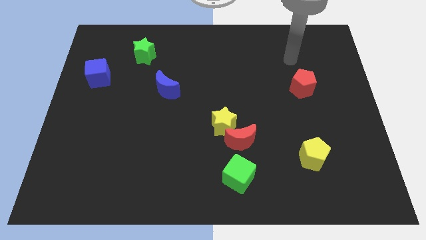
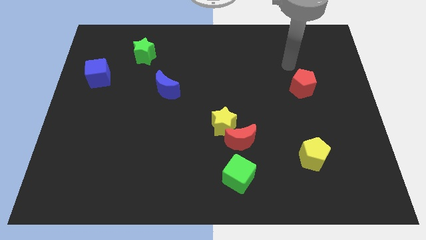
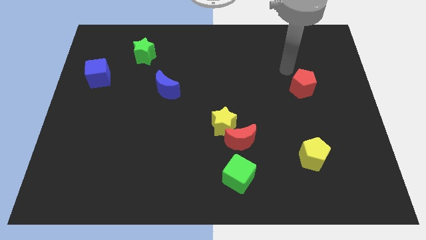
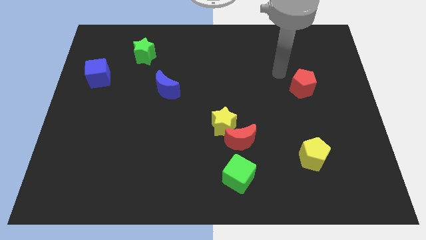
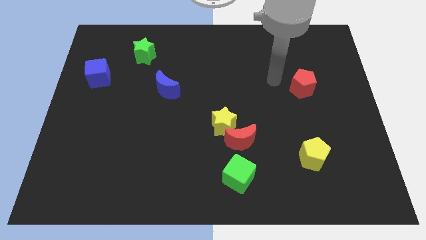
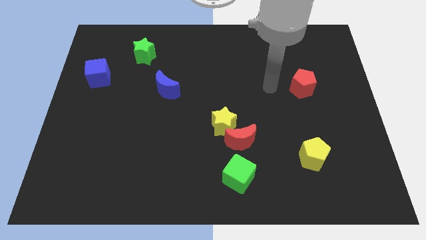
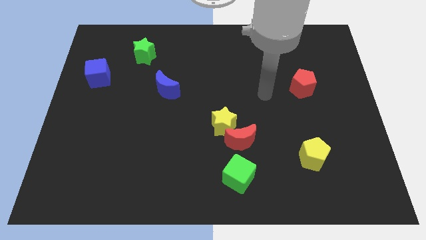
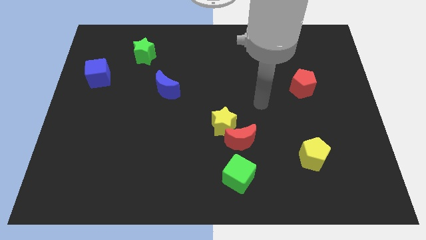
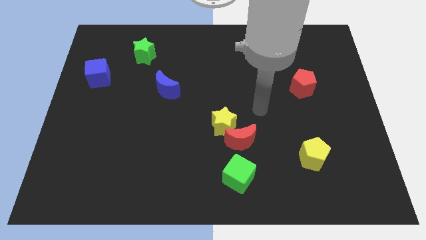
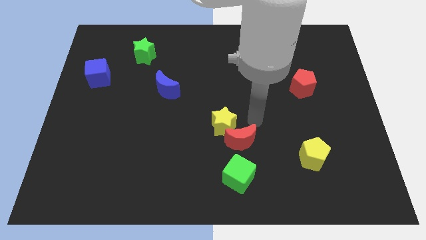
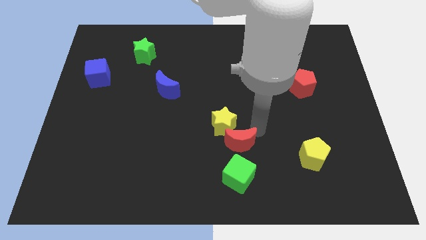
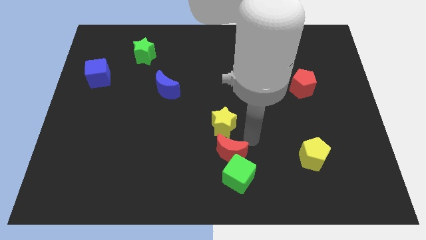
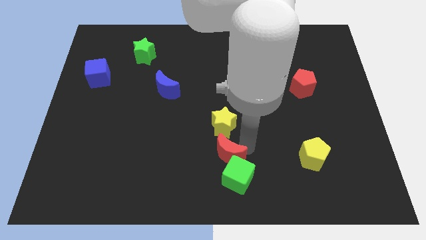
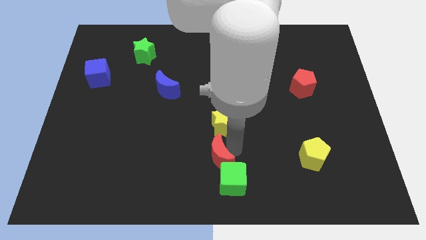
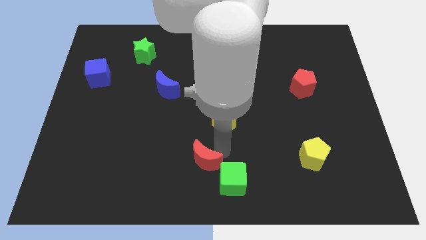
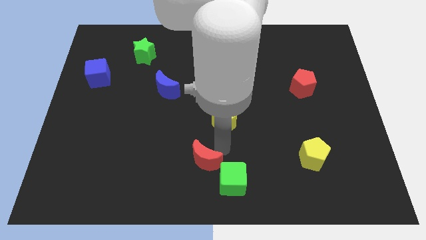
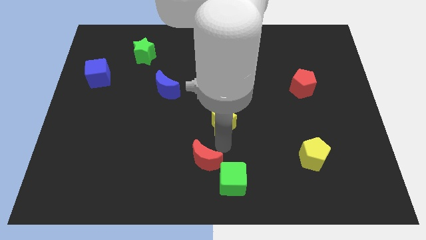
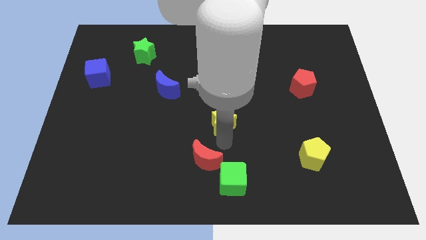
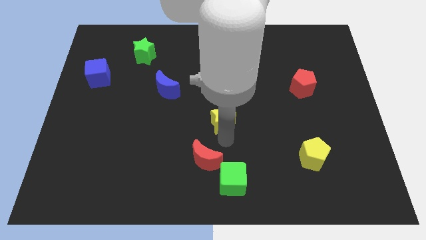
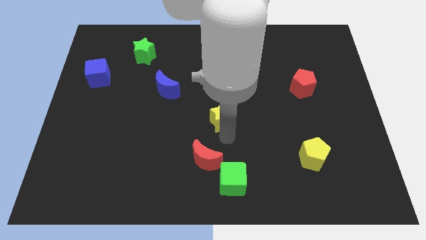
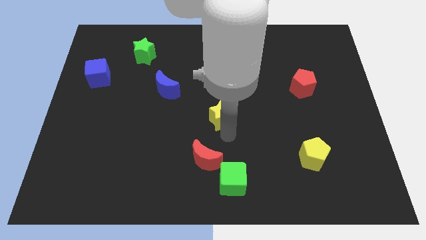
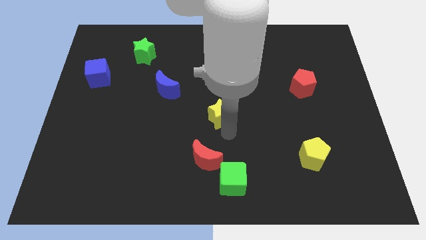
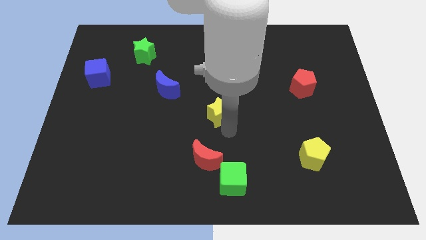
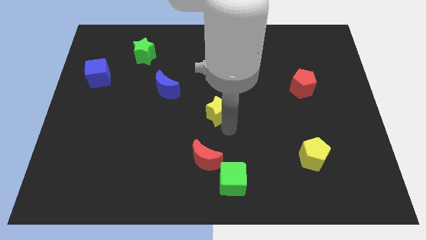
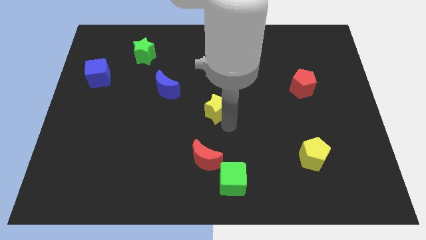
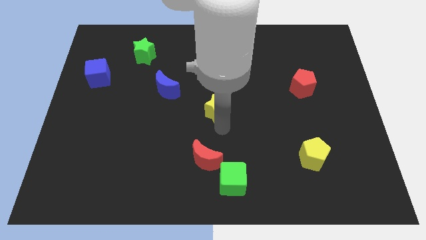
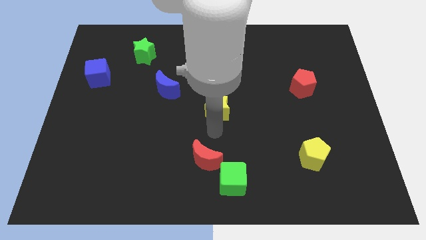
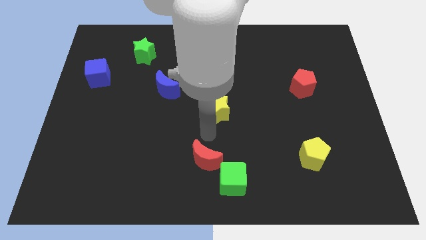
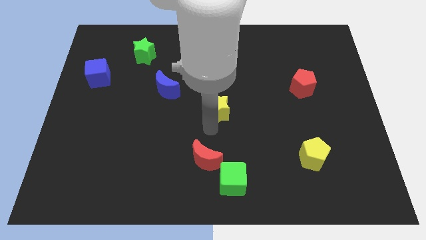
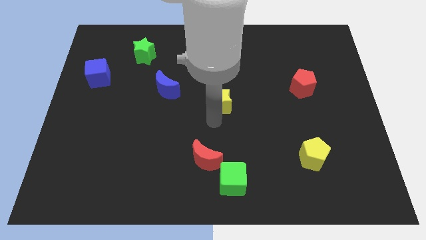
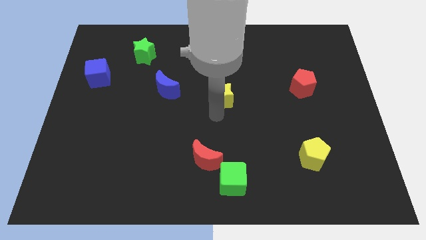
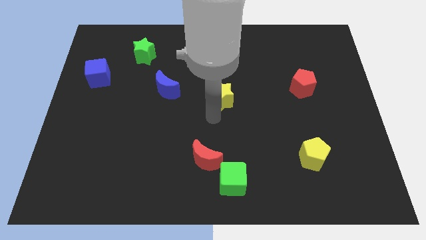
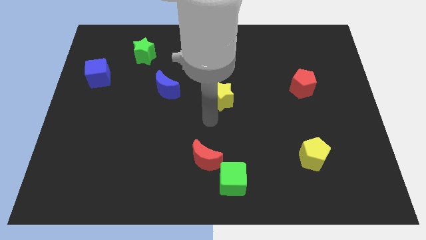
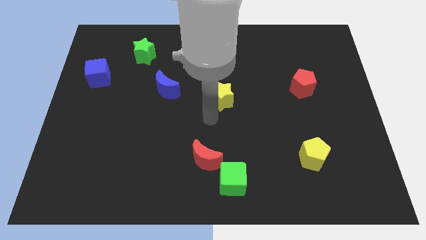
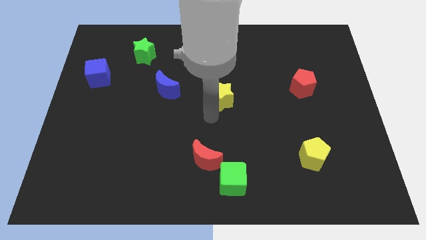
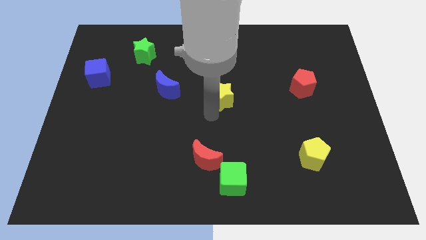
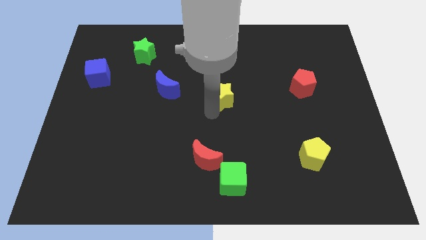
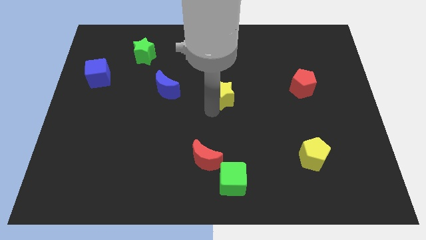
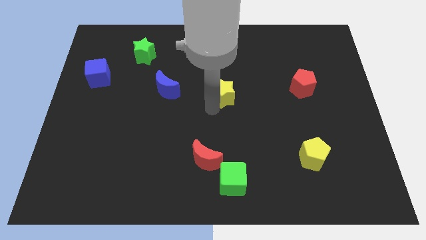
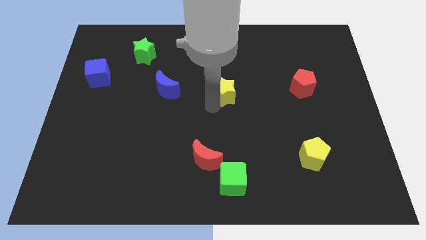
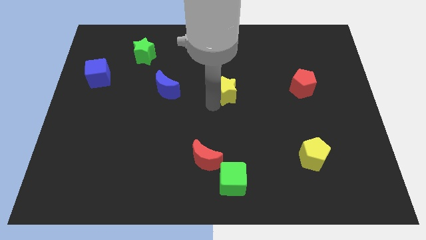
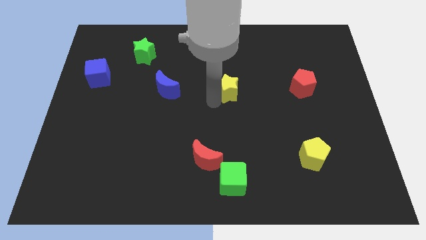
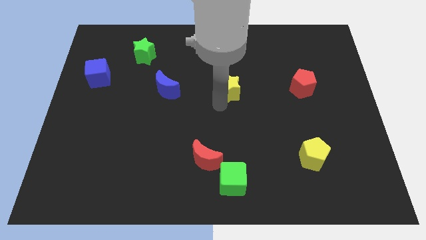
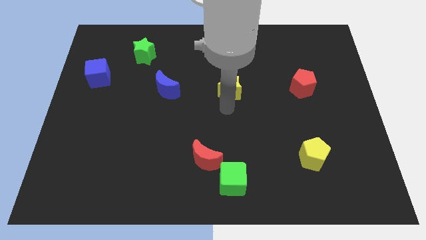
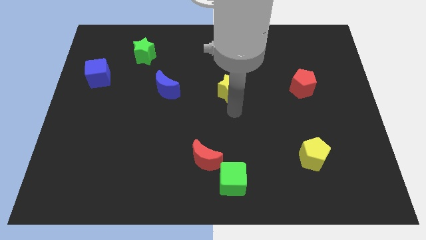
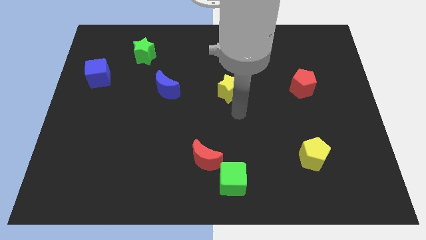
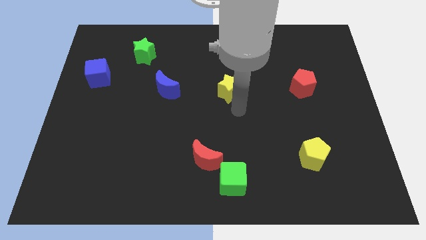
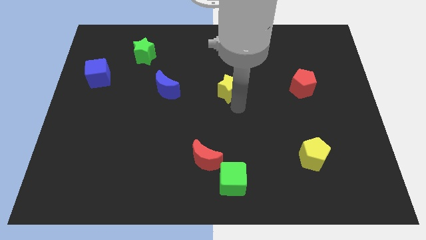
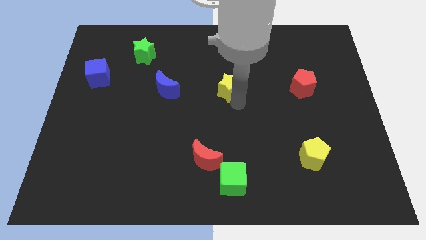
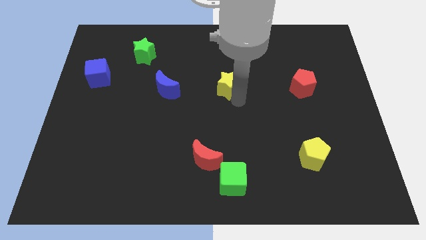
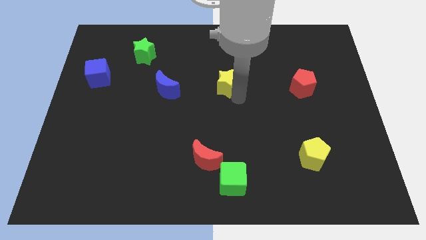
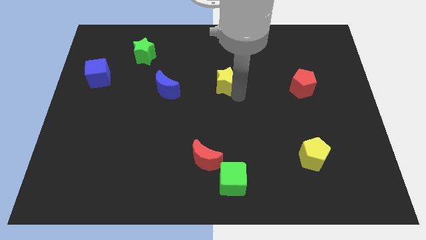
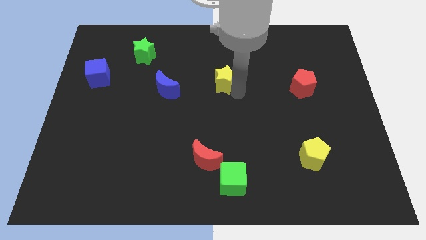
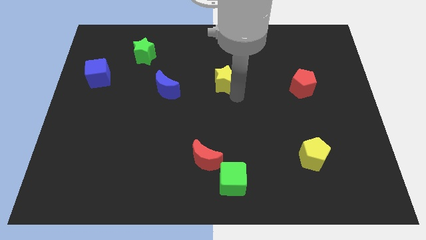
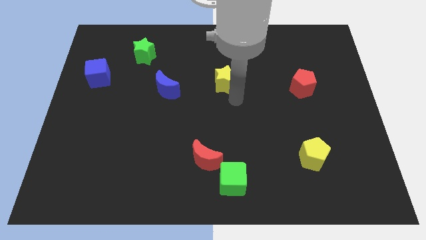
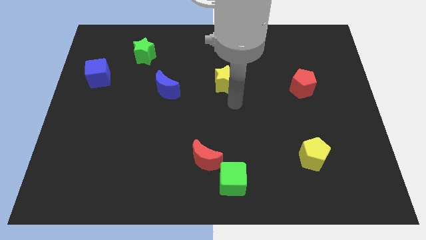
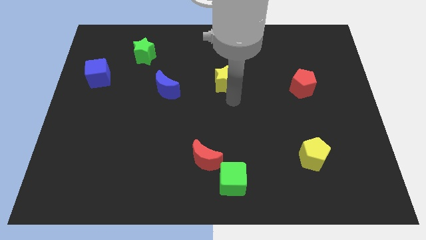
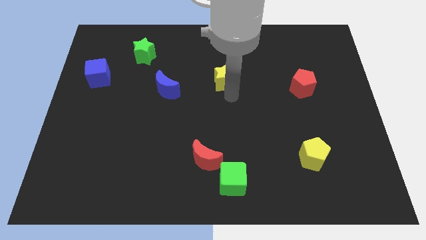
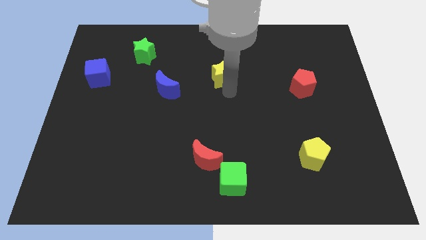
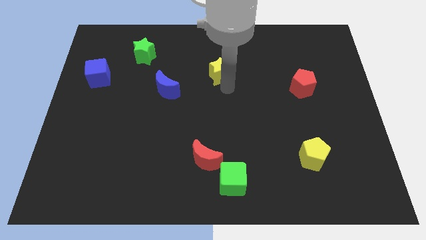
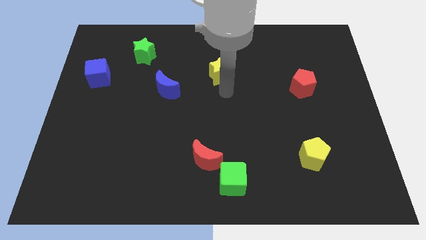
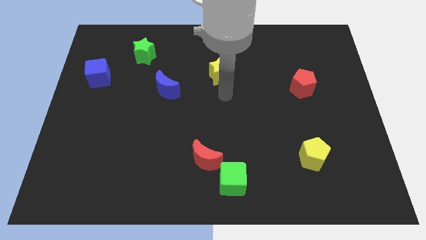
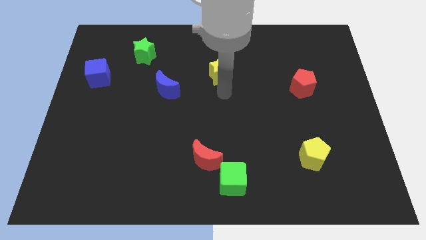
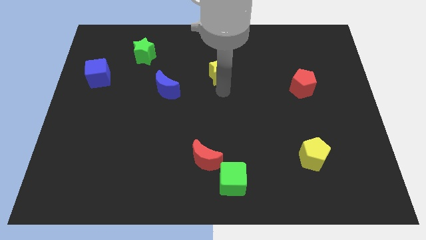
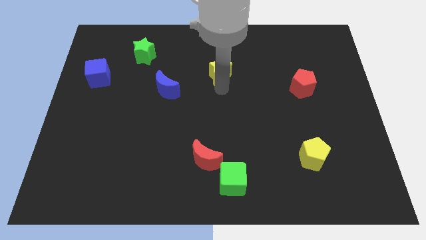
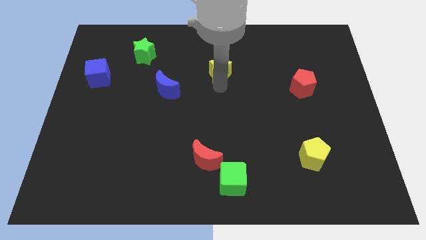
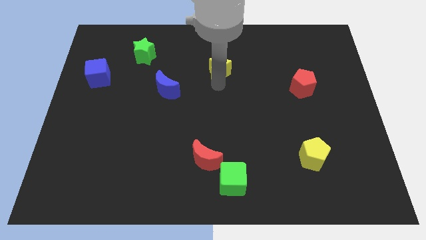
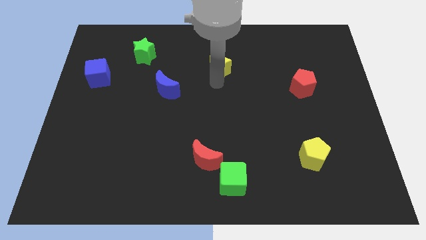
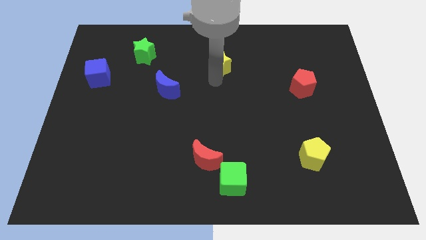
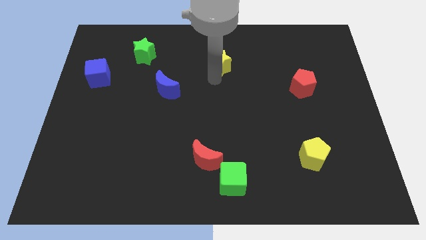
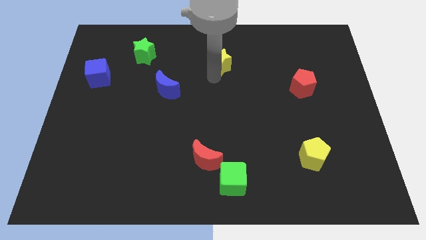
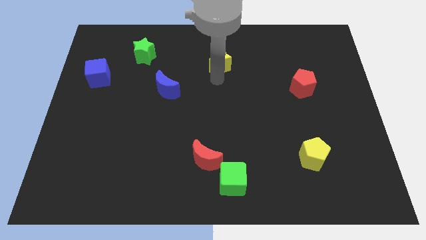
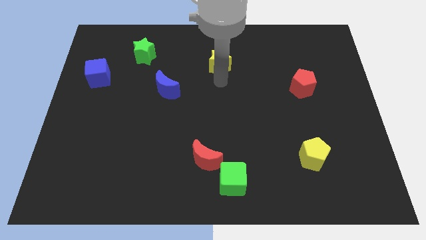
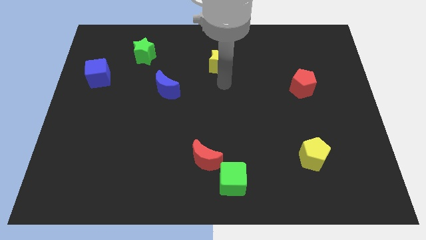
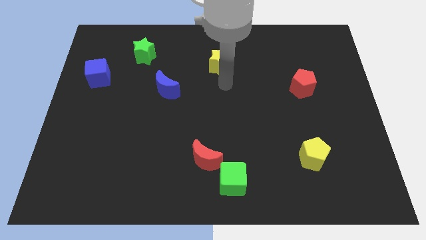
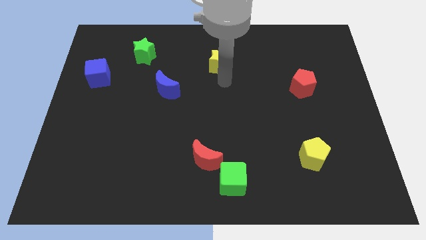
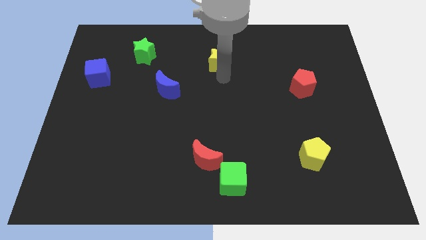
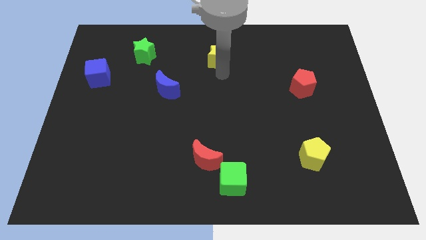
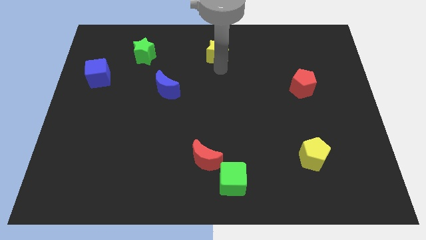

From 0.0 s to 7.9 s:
put the yellow star to the top
